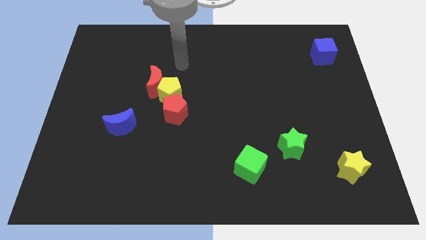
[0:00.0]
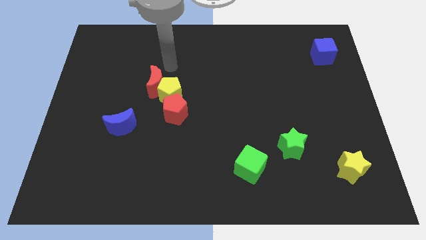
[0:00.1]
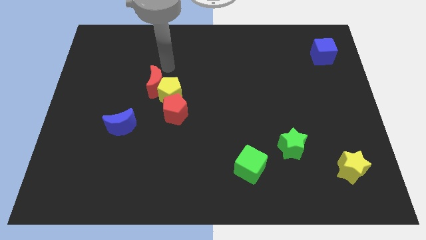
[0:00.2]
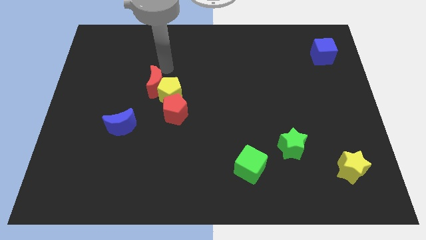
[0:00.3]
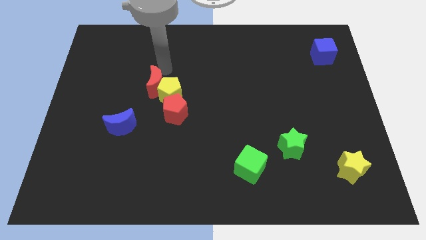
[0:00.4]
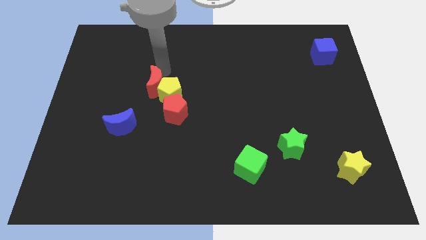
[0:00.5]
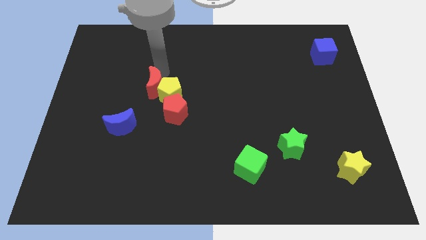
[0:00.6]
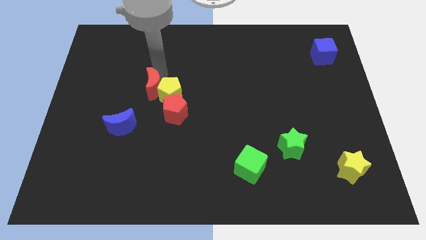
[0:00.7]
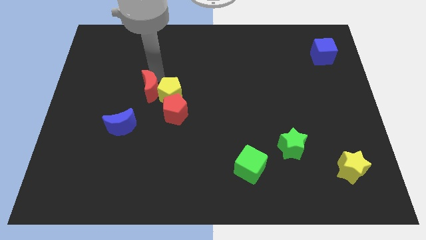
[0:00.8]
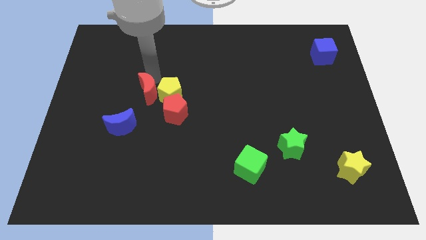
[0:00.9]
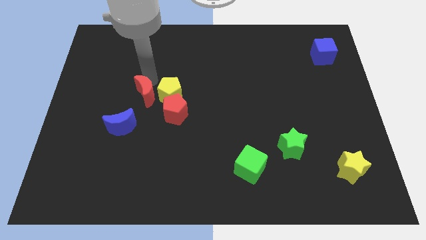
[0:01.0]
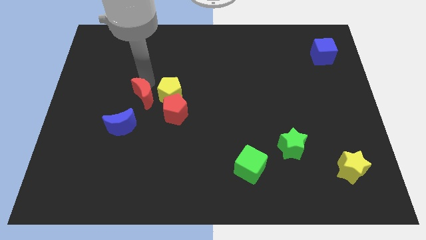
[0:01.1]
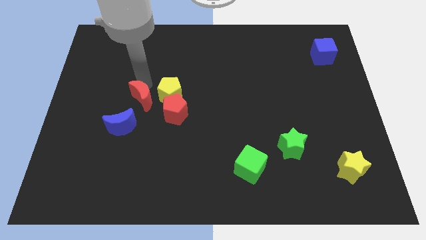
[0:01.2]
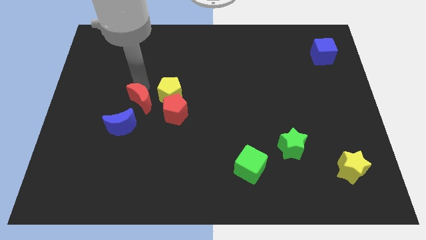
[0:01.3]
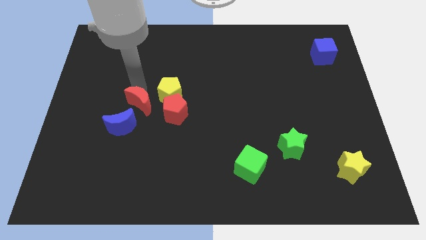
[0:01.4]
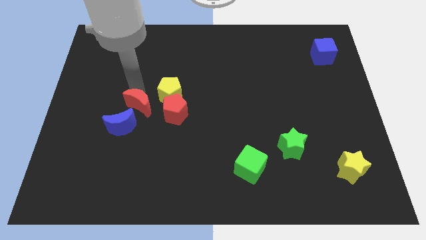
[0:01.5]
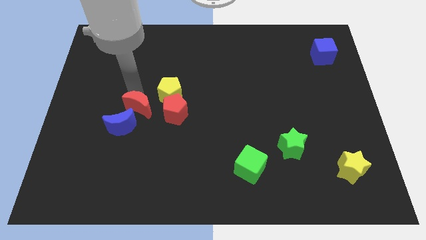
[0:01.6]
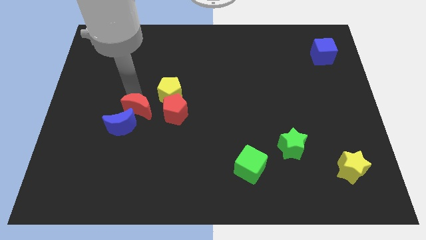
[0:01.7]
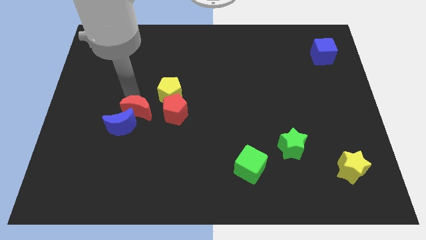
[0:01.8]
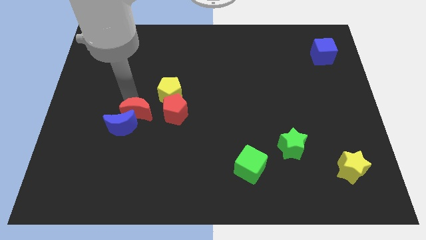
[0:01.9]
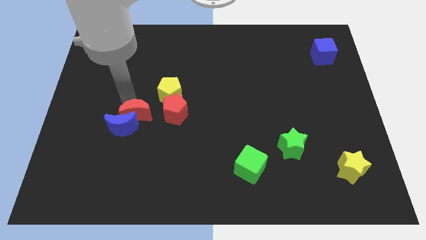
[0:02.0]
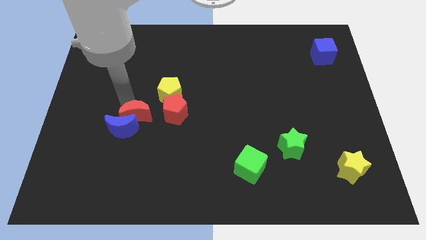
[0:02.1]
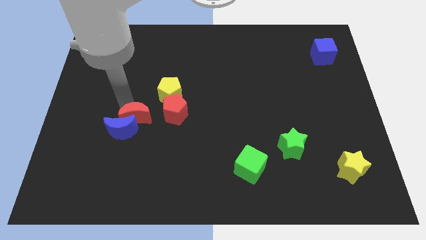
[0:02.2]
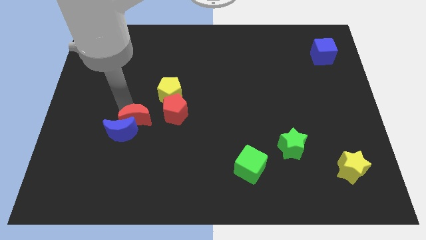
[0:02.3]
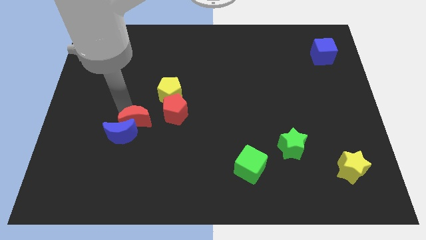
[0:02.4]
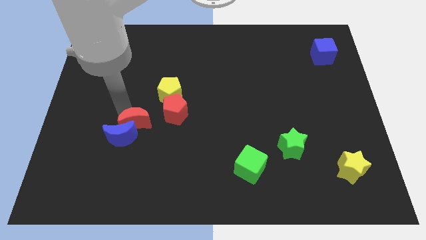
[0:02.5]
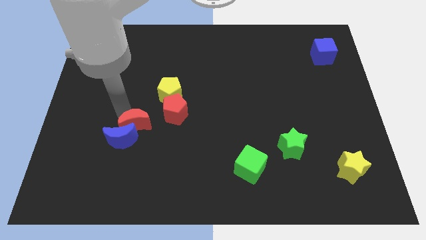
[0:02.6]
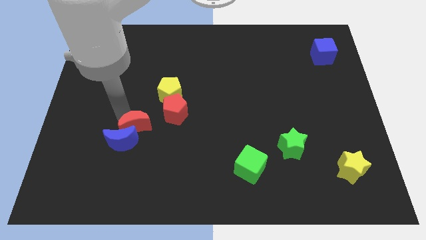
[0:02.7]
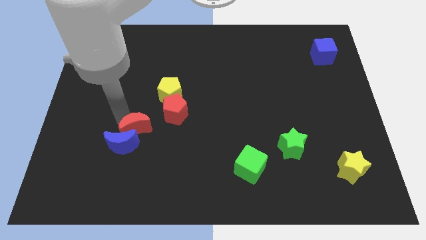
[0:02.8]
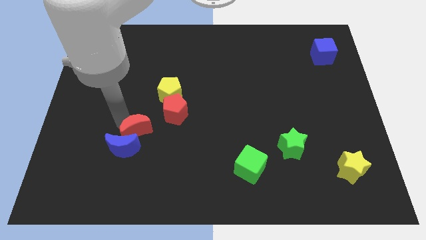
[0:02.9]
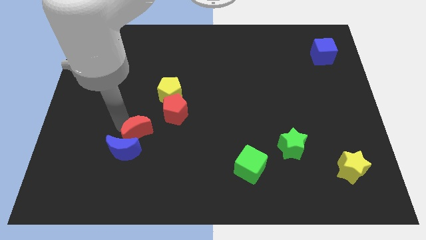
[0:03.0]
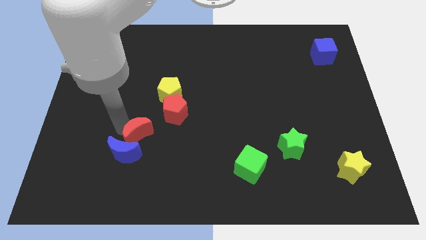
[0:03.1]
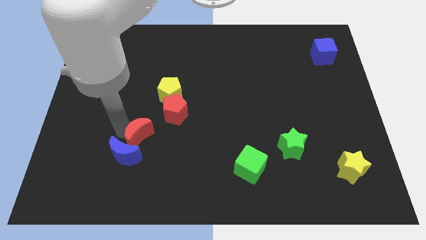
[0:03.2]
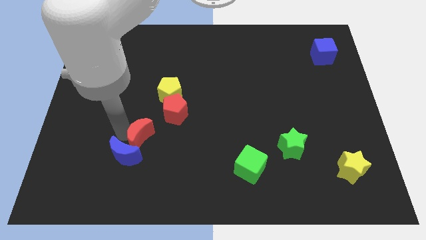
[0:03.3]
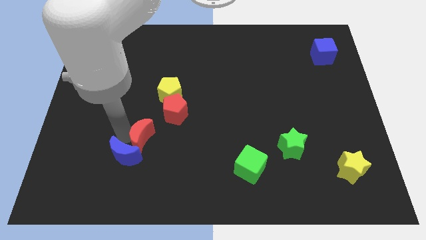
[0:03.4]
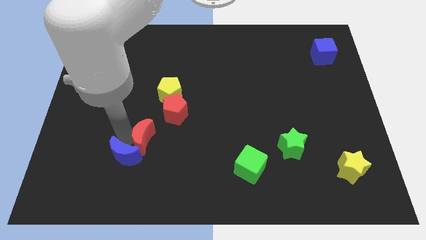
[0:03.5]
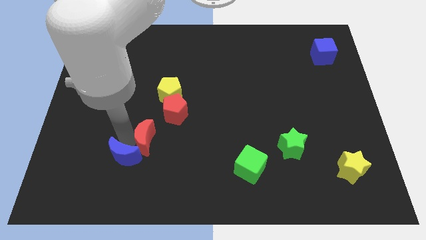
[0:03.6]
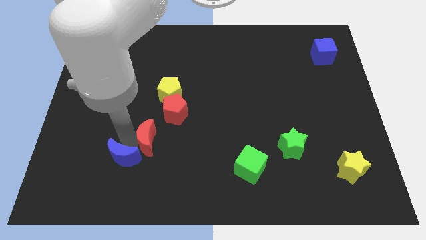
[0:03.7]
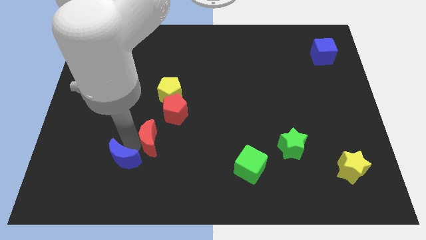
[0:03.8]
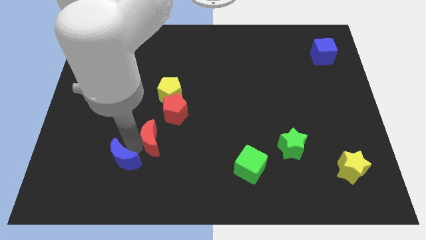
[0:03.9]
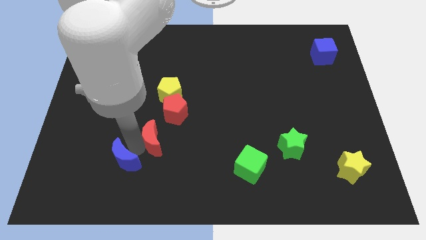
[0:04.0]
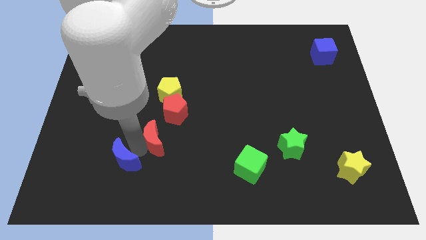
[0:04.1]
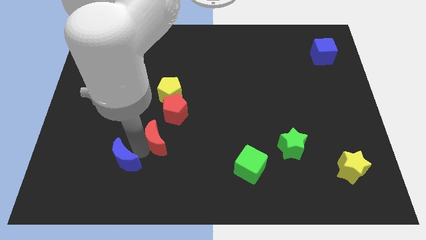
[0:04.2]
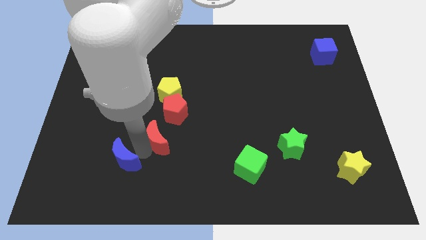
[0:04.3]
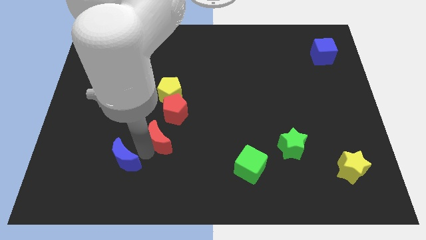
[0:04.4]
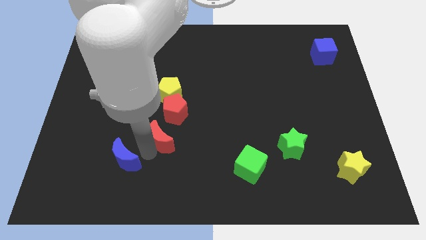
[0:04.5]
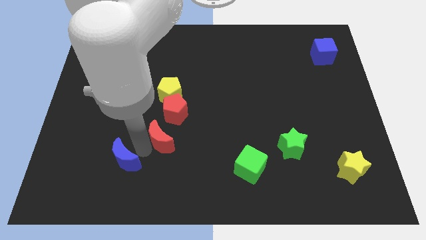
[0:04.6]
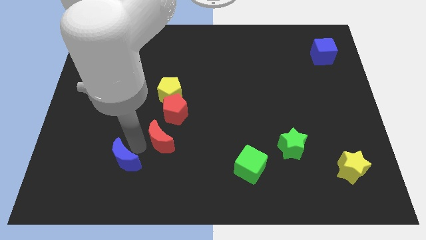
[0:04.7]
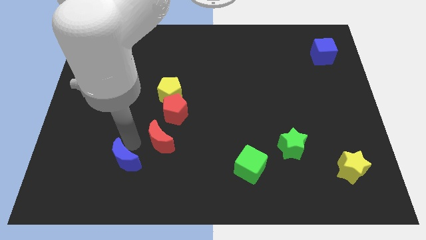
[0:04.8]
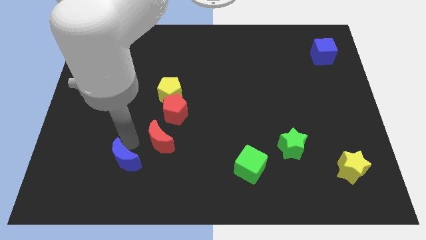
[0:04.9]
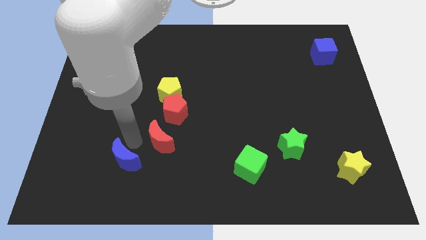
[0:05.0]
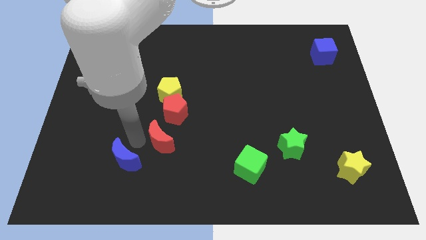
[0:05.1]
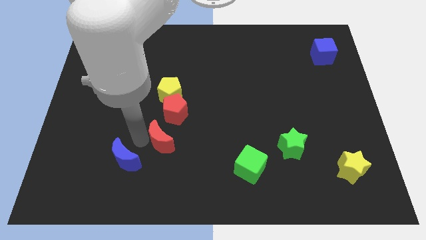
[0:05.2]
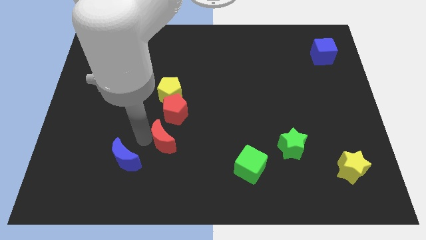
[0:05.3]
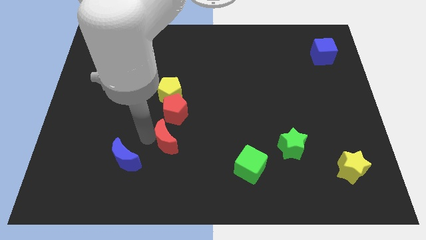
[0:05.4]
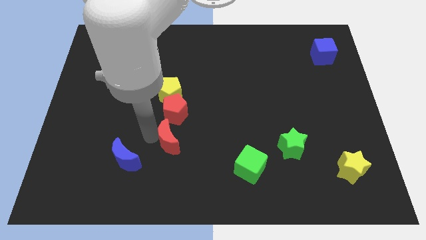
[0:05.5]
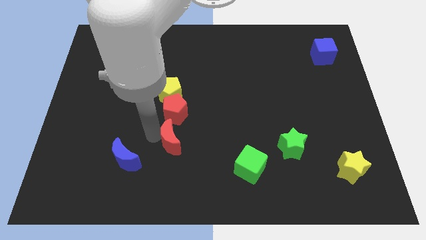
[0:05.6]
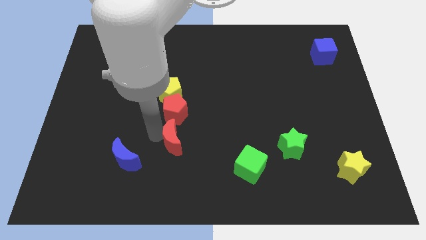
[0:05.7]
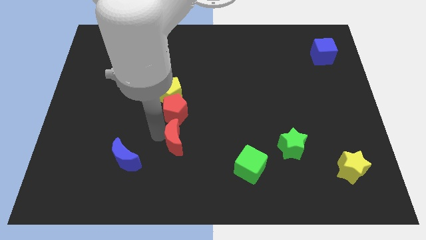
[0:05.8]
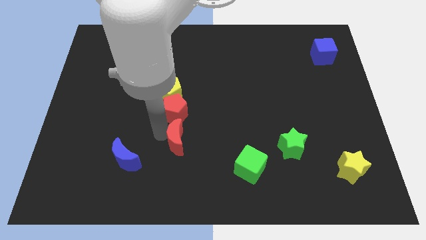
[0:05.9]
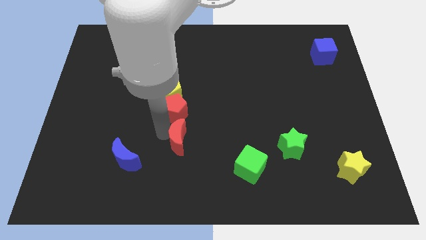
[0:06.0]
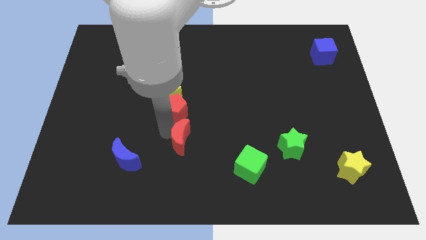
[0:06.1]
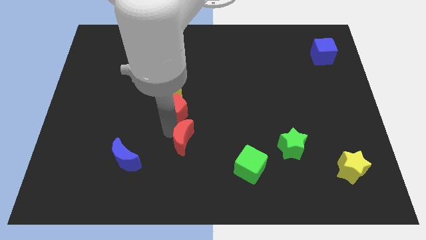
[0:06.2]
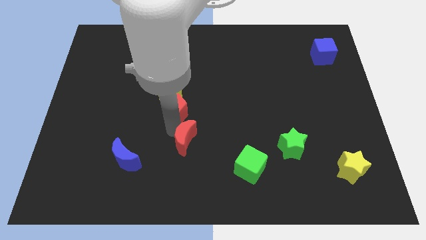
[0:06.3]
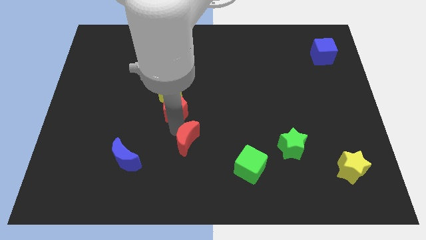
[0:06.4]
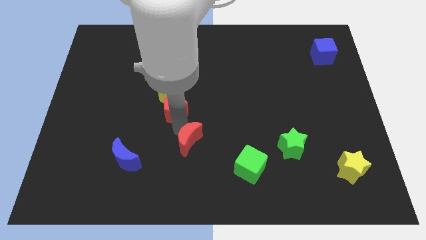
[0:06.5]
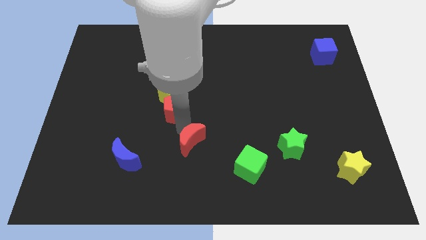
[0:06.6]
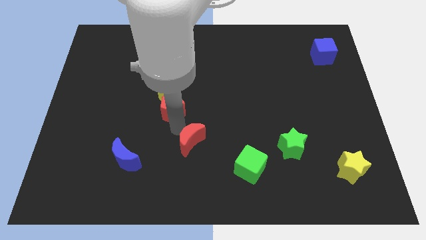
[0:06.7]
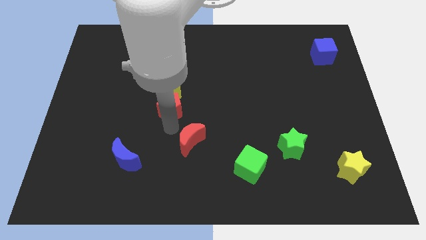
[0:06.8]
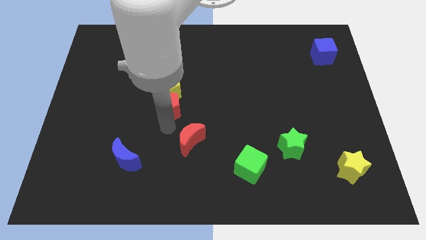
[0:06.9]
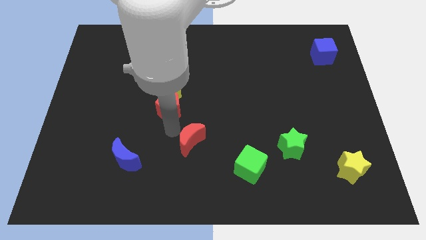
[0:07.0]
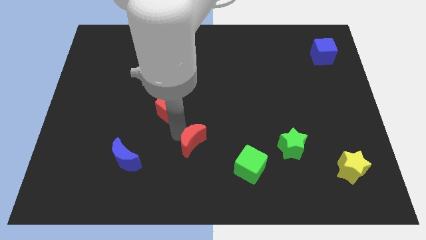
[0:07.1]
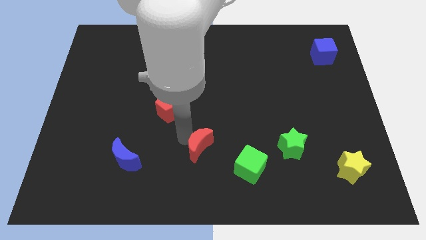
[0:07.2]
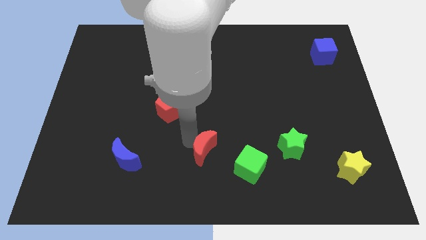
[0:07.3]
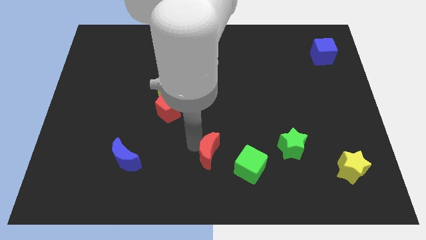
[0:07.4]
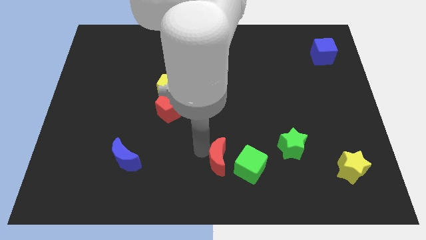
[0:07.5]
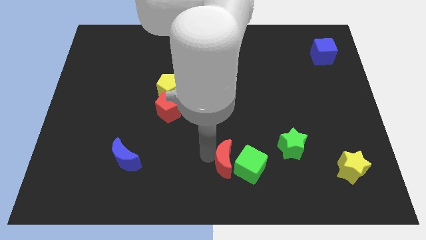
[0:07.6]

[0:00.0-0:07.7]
push the red moon towards the green cube
